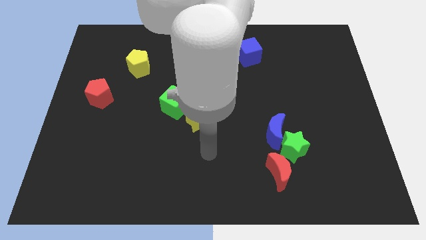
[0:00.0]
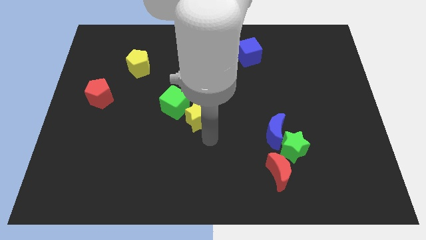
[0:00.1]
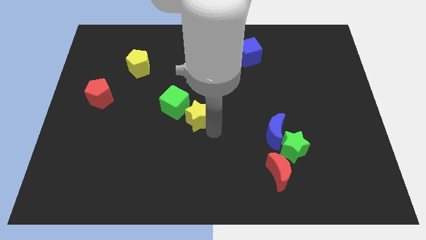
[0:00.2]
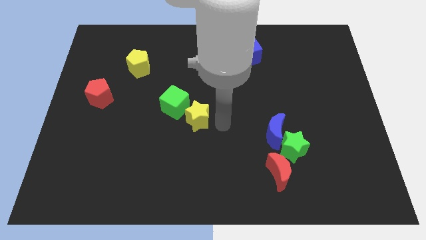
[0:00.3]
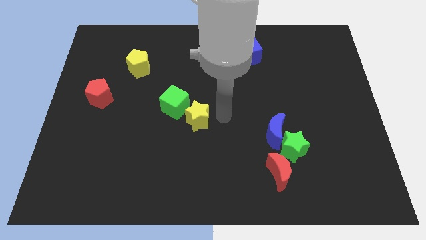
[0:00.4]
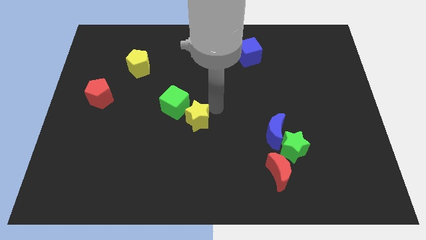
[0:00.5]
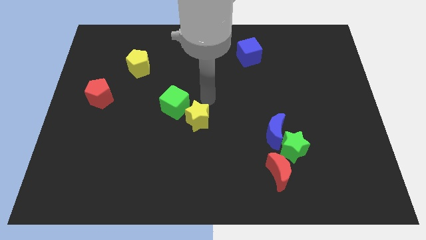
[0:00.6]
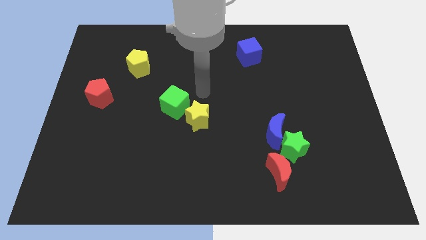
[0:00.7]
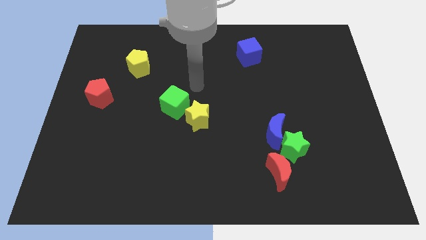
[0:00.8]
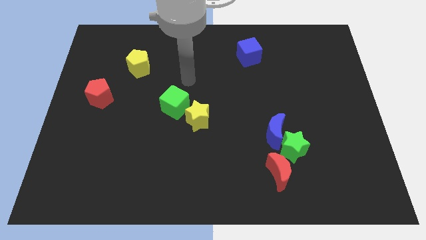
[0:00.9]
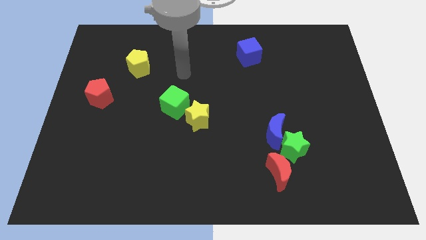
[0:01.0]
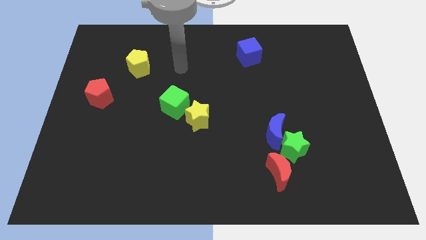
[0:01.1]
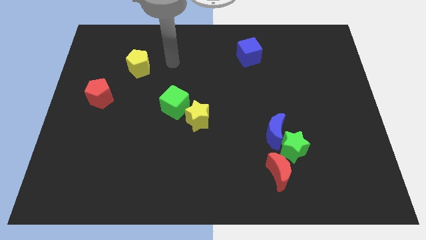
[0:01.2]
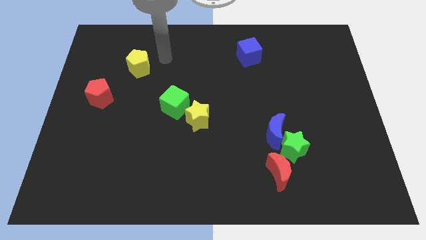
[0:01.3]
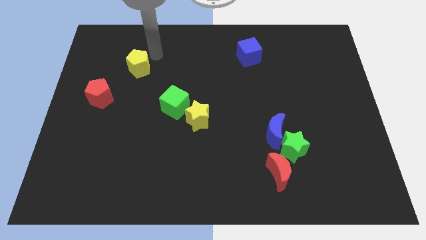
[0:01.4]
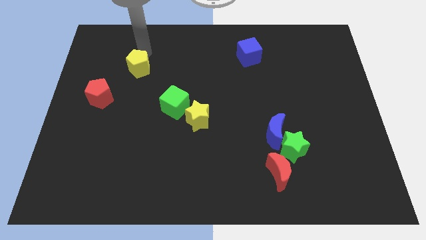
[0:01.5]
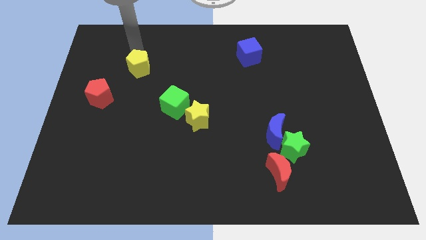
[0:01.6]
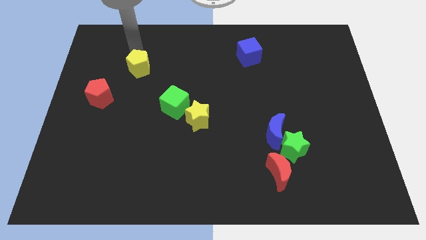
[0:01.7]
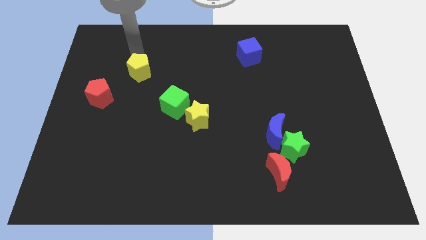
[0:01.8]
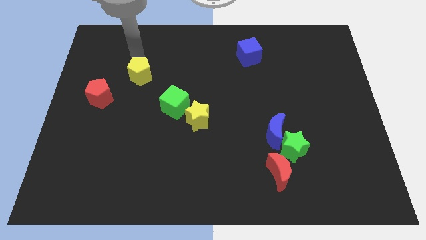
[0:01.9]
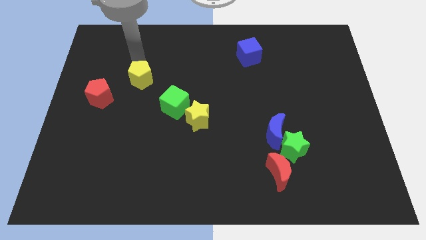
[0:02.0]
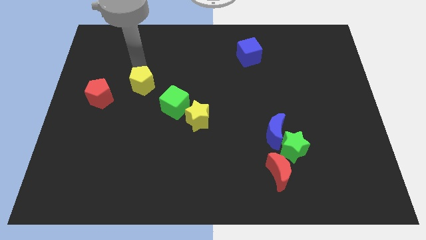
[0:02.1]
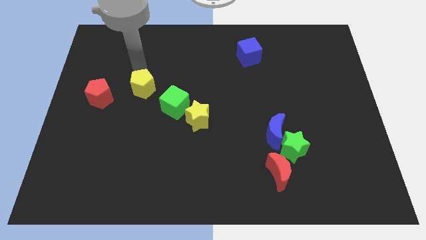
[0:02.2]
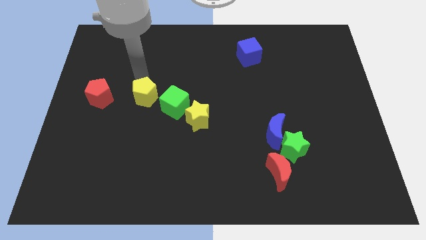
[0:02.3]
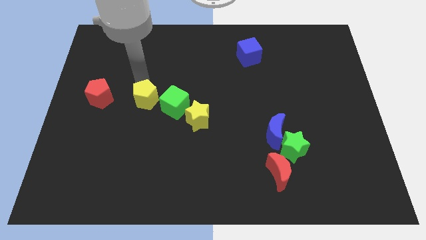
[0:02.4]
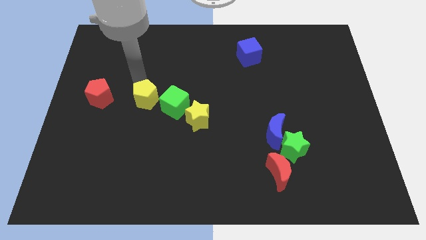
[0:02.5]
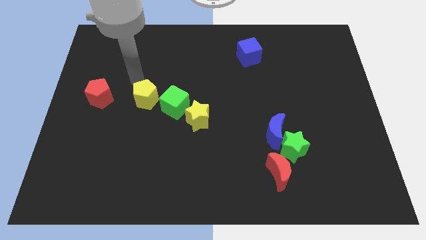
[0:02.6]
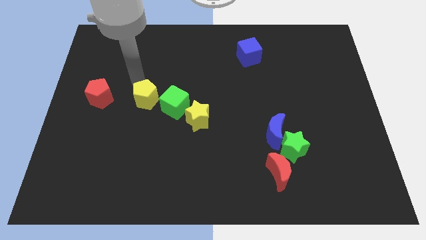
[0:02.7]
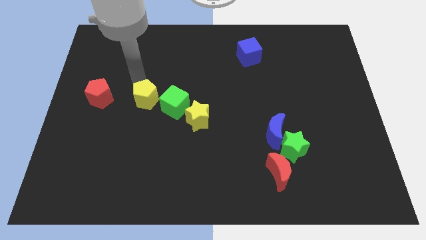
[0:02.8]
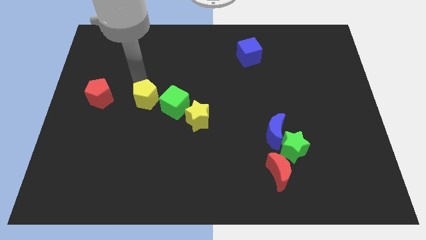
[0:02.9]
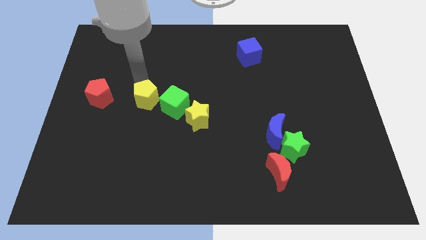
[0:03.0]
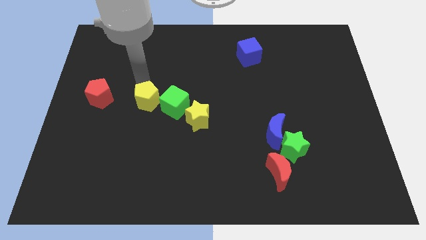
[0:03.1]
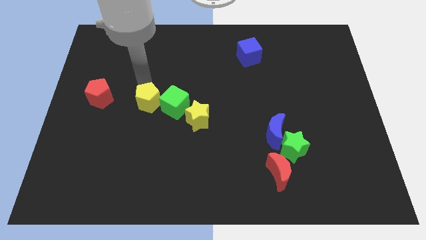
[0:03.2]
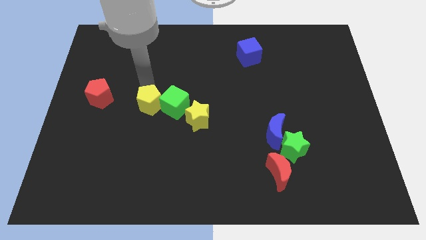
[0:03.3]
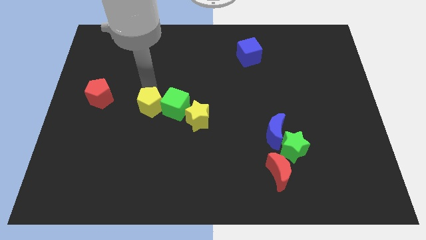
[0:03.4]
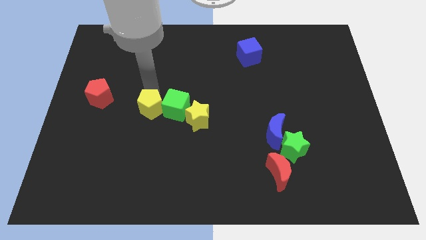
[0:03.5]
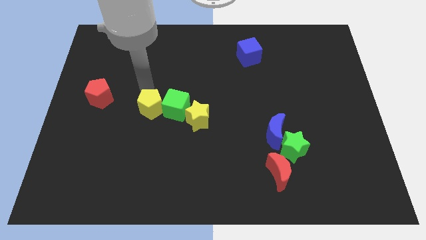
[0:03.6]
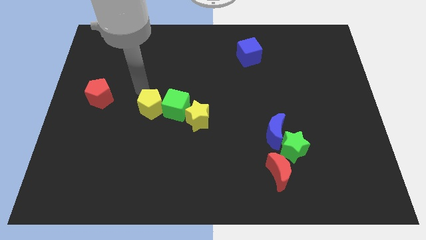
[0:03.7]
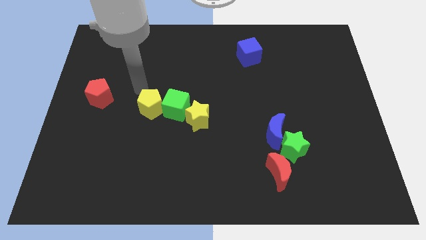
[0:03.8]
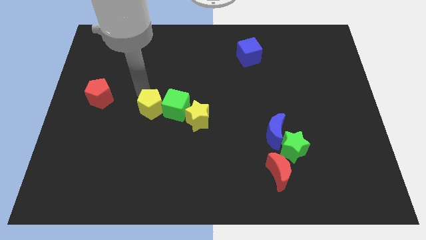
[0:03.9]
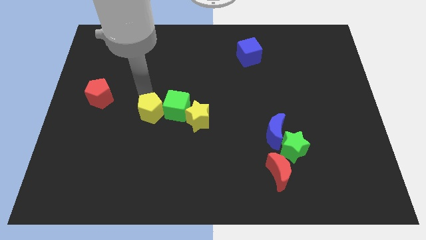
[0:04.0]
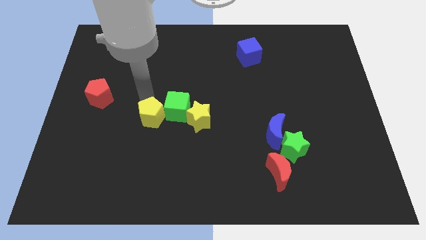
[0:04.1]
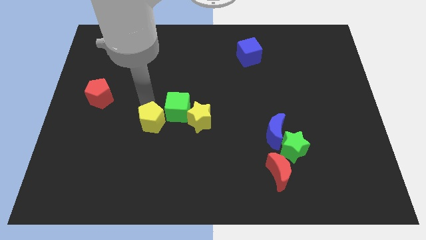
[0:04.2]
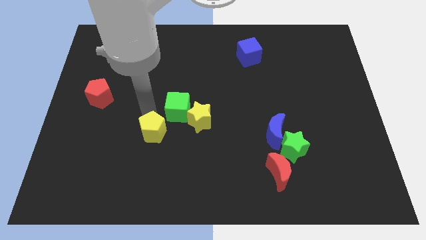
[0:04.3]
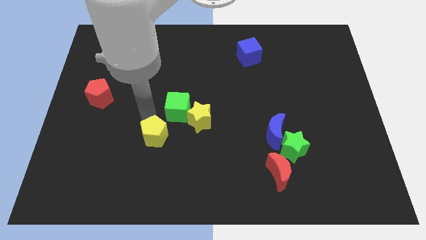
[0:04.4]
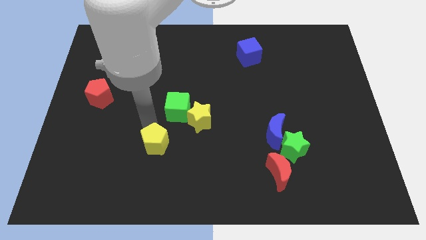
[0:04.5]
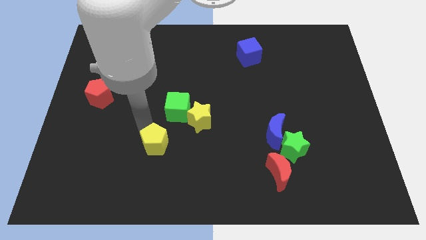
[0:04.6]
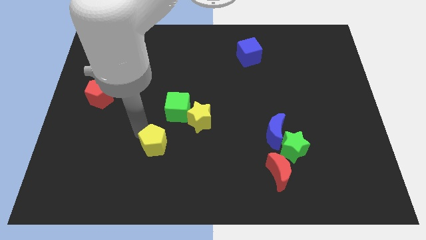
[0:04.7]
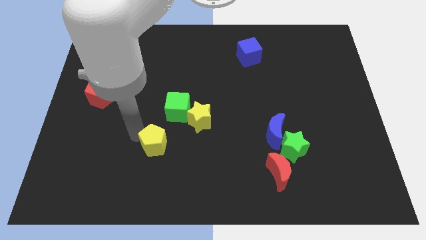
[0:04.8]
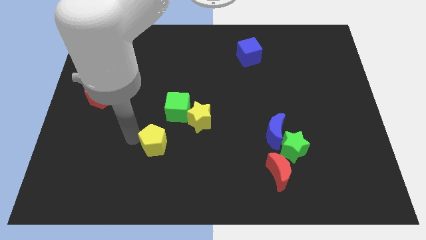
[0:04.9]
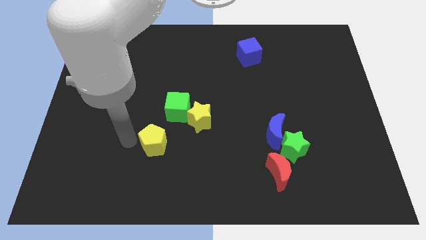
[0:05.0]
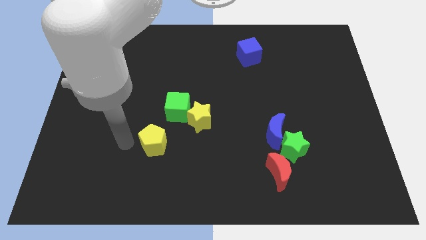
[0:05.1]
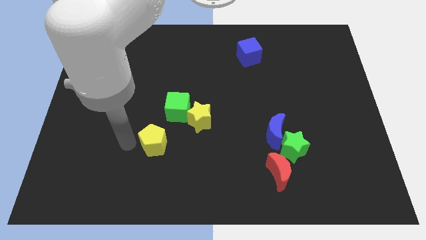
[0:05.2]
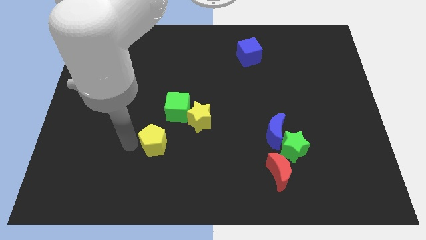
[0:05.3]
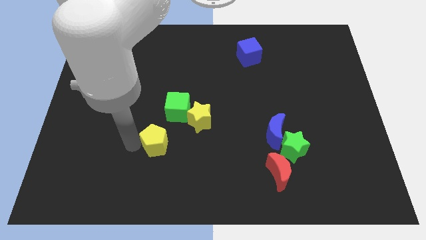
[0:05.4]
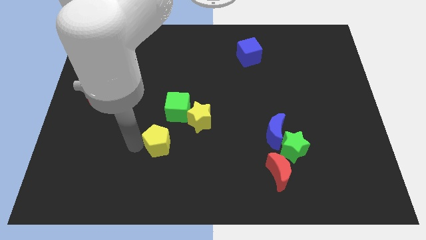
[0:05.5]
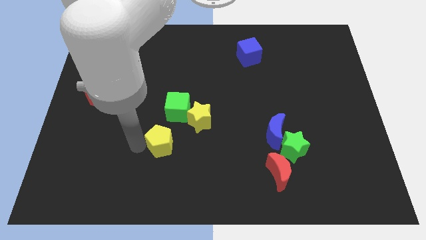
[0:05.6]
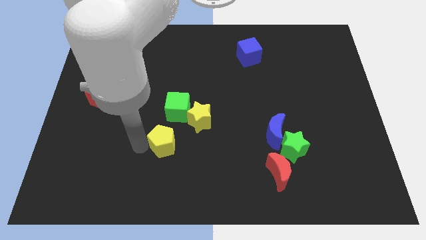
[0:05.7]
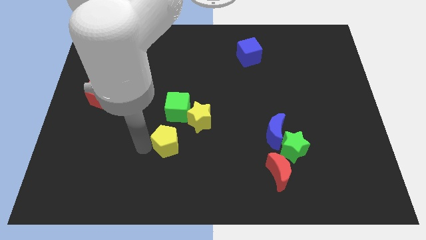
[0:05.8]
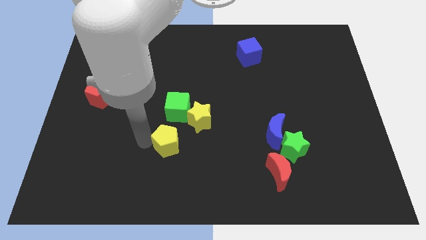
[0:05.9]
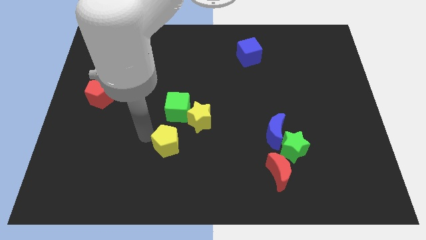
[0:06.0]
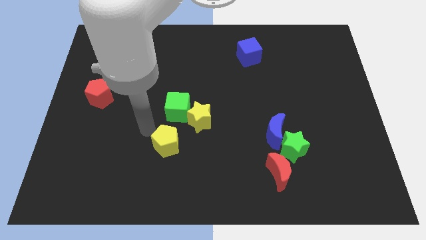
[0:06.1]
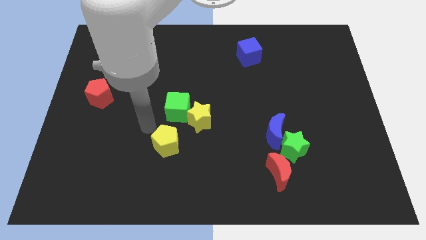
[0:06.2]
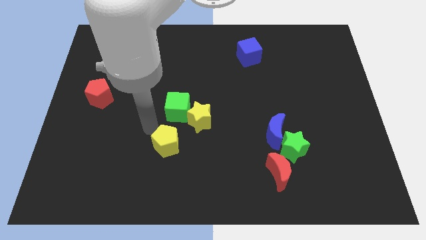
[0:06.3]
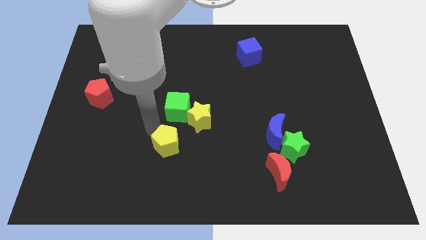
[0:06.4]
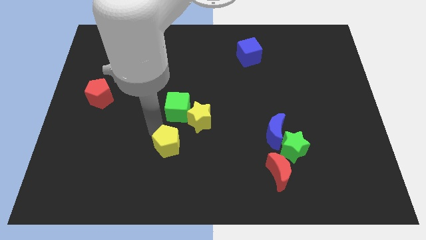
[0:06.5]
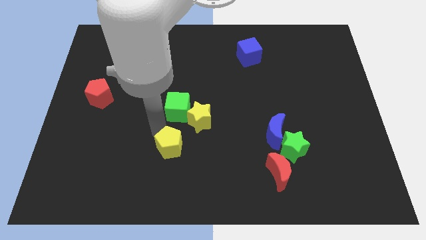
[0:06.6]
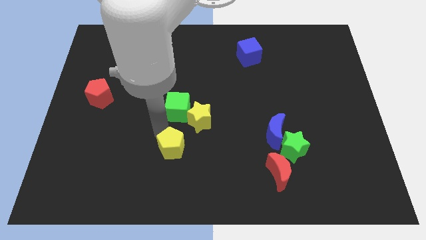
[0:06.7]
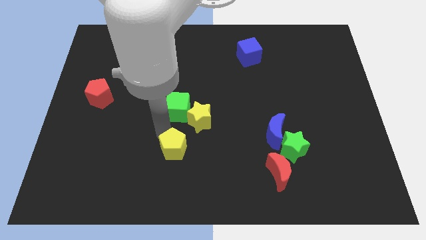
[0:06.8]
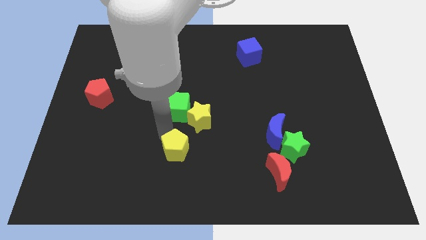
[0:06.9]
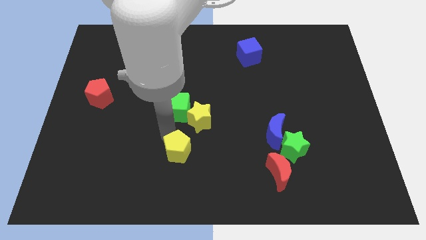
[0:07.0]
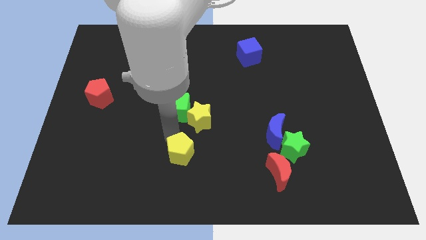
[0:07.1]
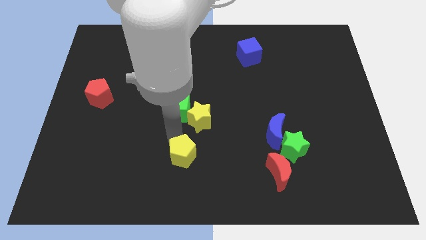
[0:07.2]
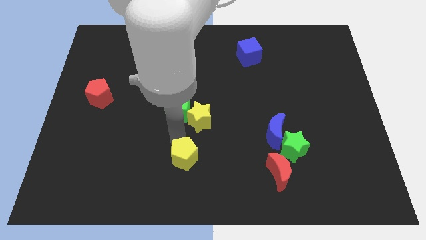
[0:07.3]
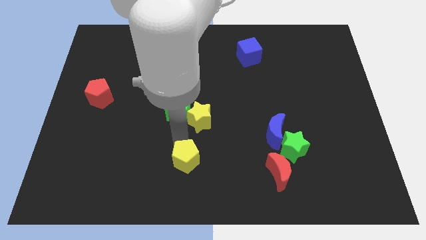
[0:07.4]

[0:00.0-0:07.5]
push the yellow pentagon to the bottom

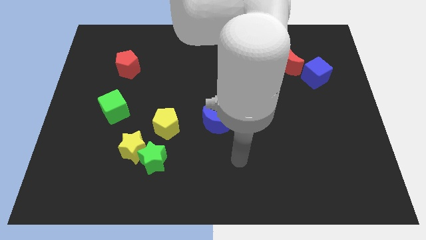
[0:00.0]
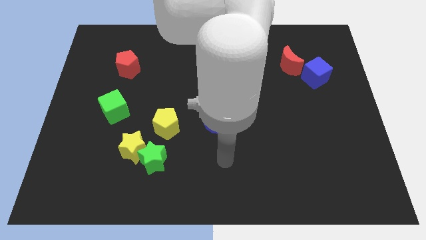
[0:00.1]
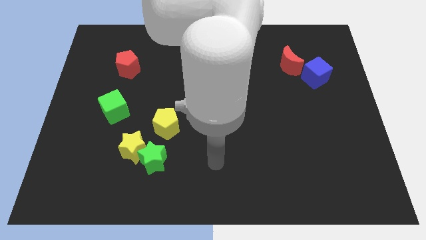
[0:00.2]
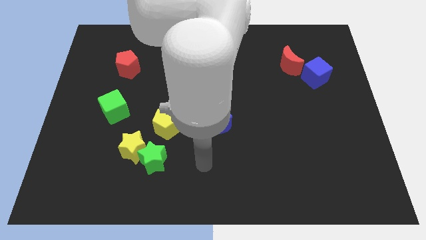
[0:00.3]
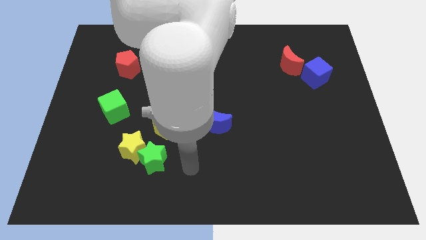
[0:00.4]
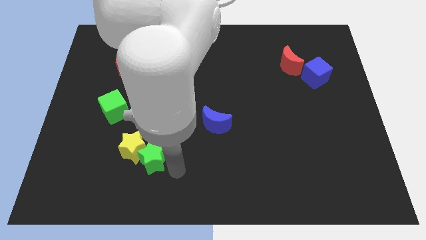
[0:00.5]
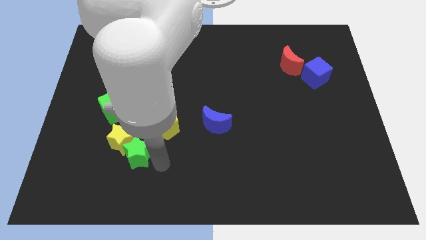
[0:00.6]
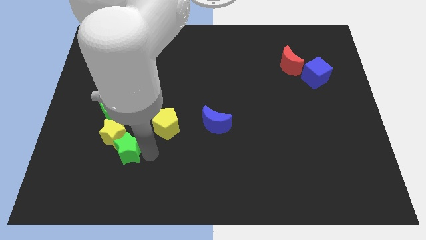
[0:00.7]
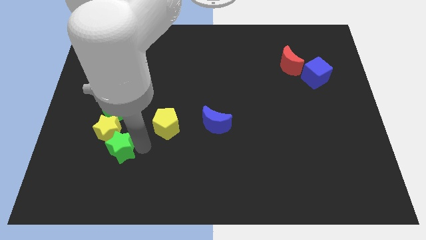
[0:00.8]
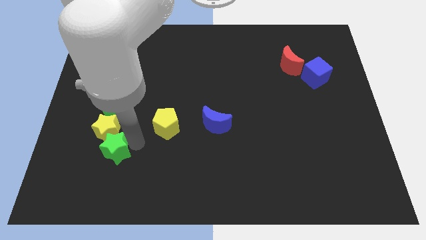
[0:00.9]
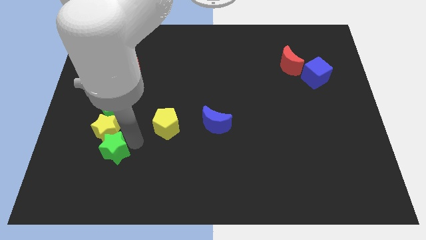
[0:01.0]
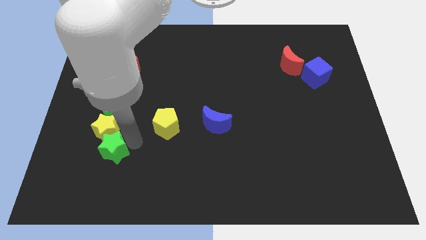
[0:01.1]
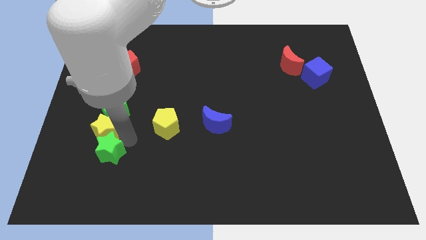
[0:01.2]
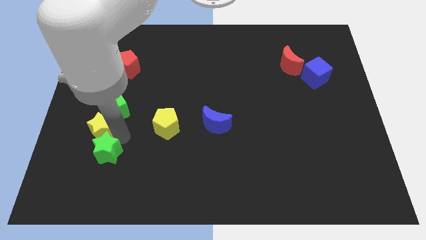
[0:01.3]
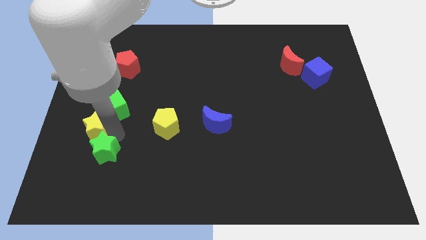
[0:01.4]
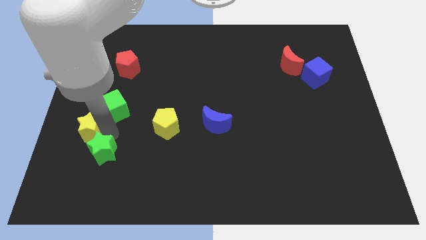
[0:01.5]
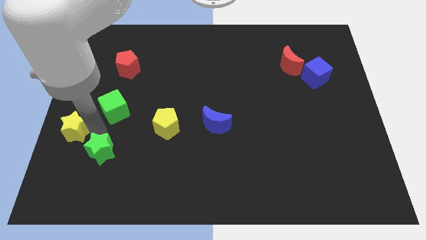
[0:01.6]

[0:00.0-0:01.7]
put the yellow star to the center left
